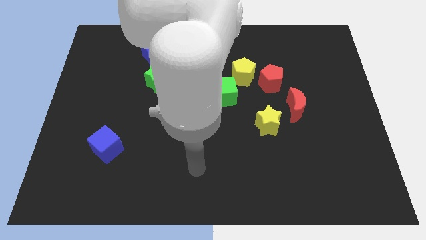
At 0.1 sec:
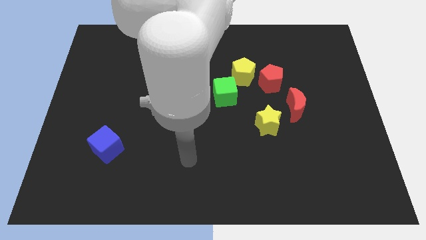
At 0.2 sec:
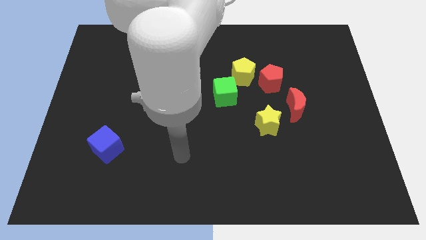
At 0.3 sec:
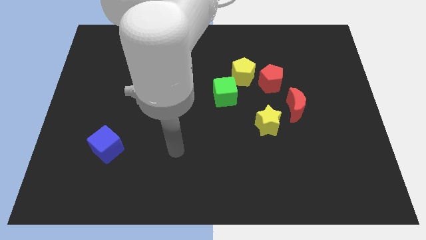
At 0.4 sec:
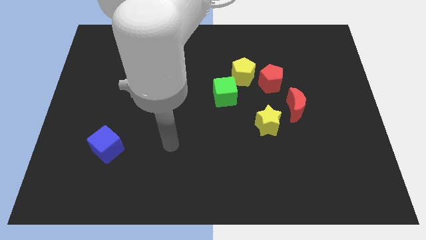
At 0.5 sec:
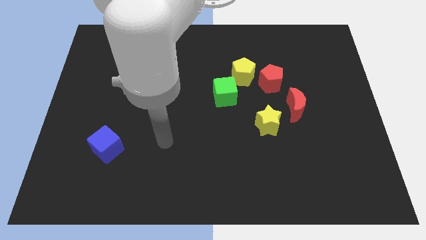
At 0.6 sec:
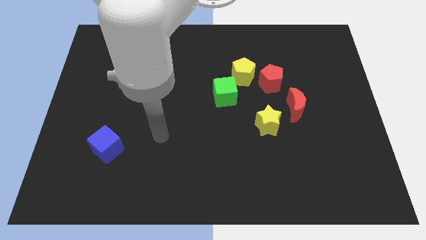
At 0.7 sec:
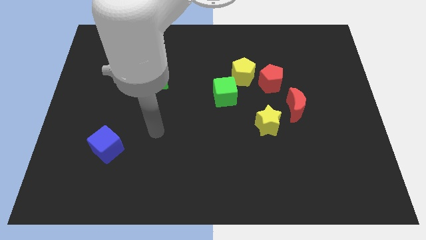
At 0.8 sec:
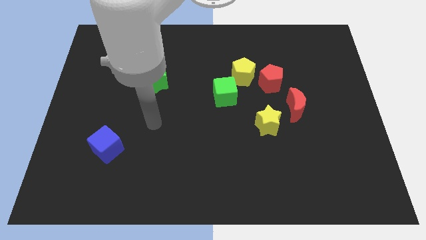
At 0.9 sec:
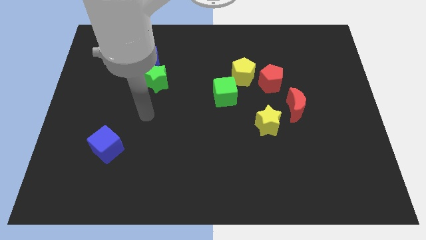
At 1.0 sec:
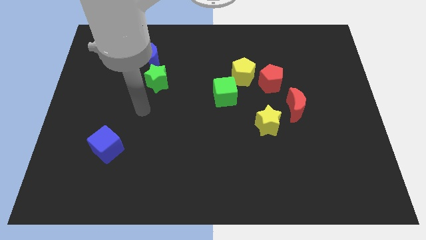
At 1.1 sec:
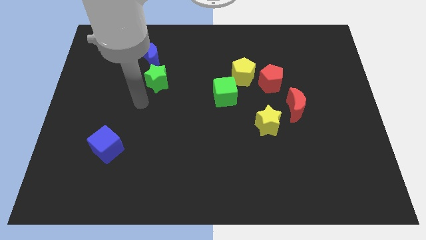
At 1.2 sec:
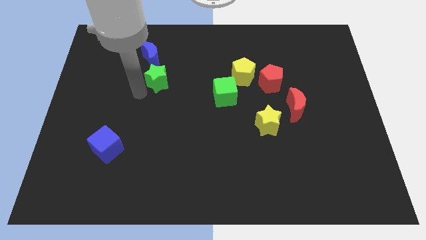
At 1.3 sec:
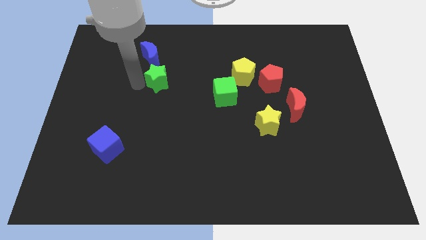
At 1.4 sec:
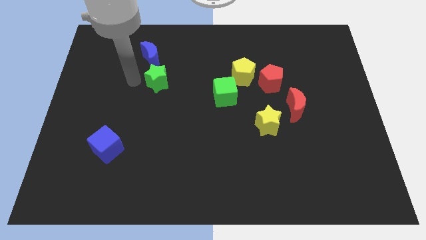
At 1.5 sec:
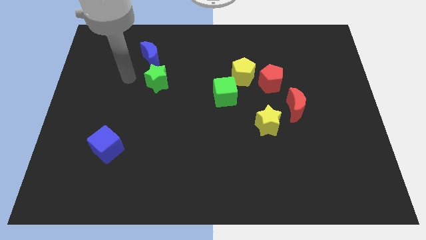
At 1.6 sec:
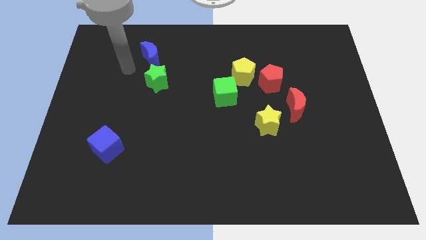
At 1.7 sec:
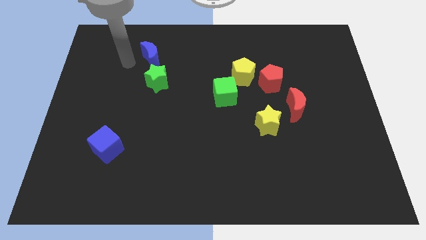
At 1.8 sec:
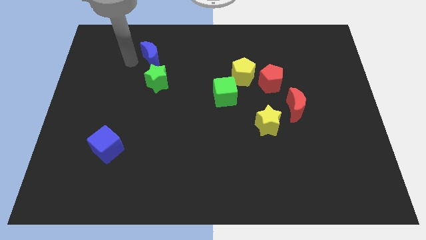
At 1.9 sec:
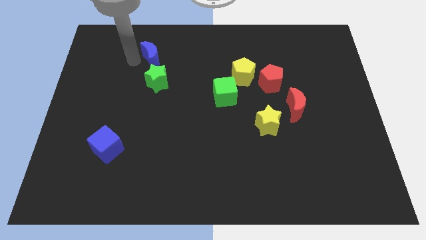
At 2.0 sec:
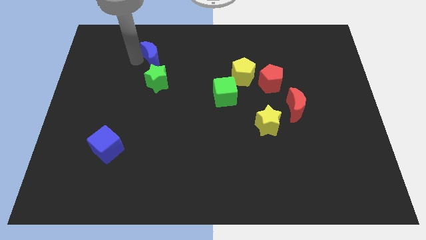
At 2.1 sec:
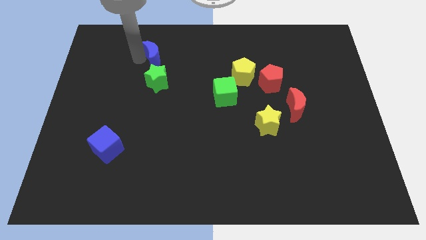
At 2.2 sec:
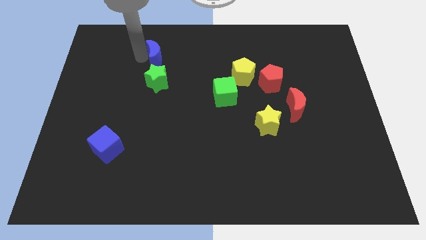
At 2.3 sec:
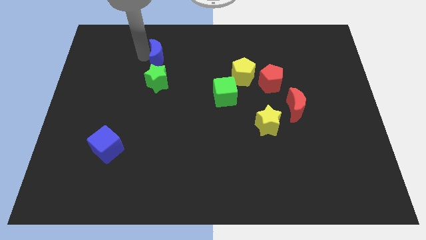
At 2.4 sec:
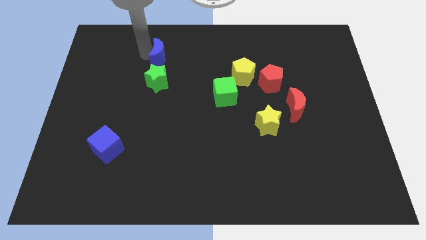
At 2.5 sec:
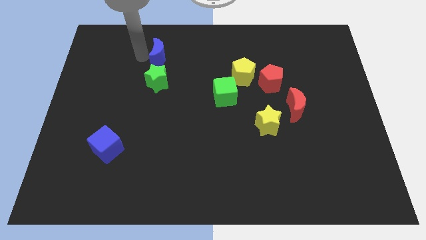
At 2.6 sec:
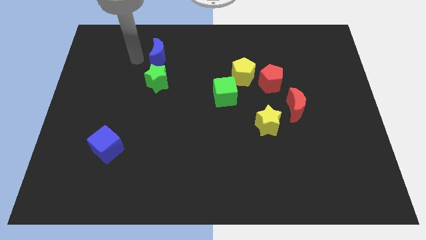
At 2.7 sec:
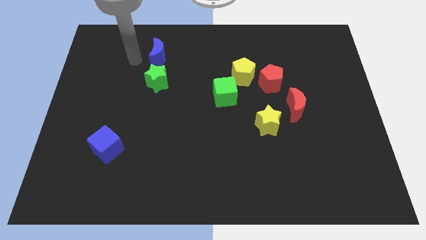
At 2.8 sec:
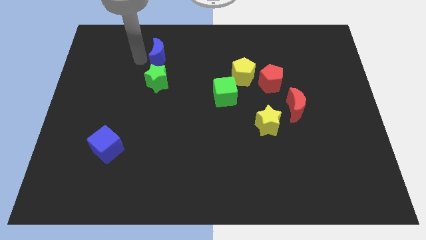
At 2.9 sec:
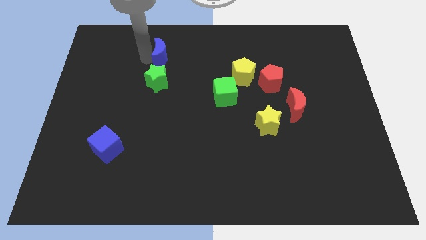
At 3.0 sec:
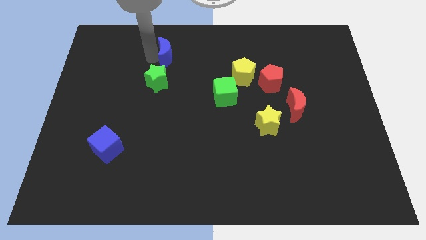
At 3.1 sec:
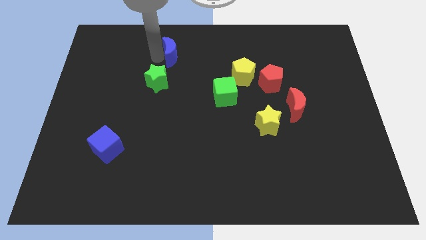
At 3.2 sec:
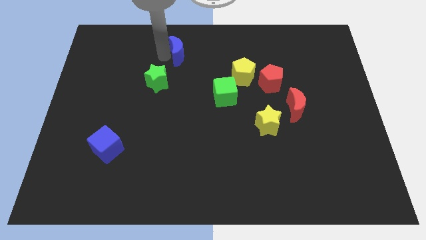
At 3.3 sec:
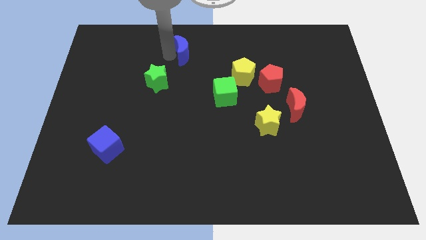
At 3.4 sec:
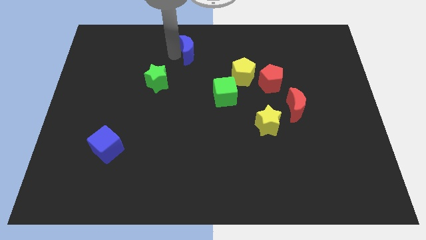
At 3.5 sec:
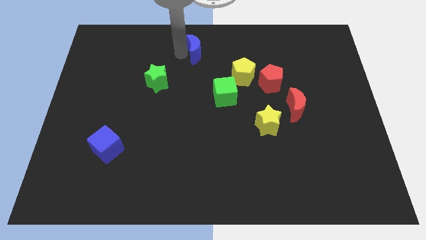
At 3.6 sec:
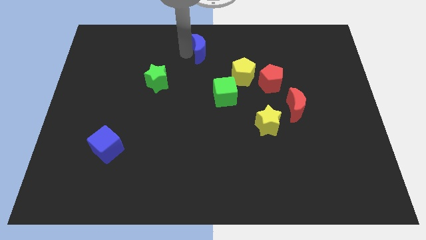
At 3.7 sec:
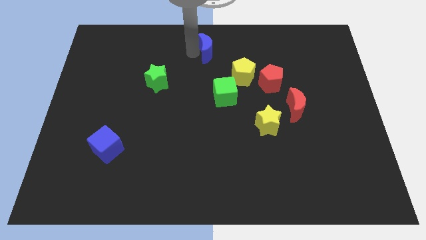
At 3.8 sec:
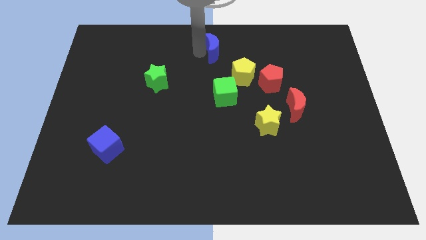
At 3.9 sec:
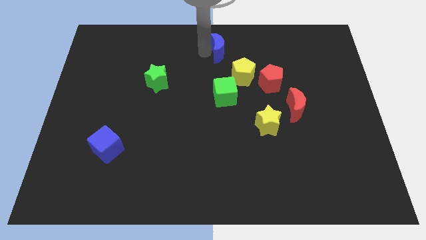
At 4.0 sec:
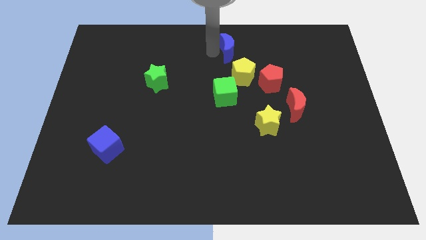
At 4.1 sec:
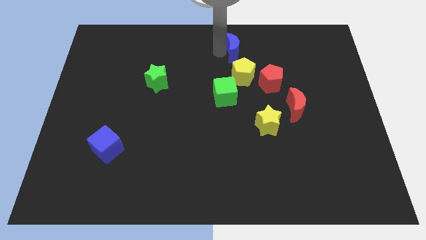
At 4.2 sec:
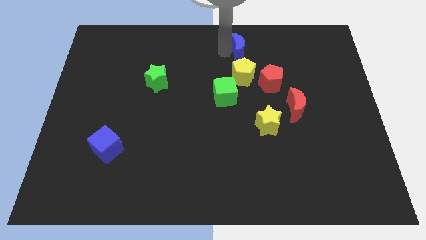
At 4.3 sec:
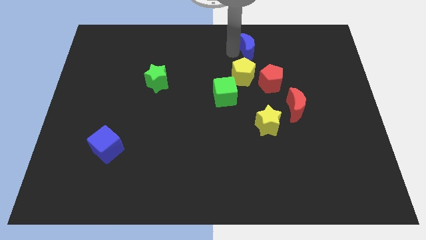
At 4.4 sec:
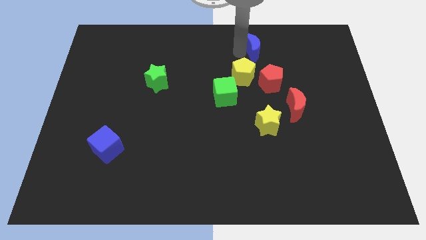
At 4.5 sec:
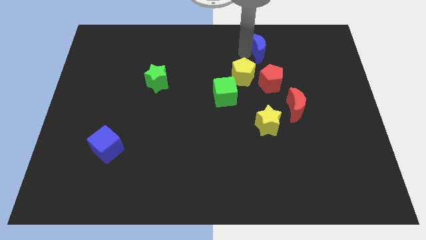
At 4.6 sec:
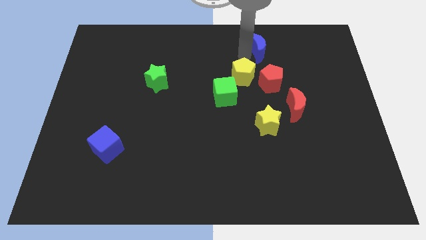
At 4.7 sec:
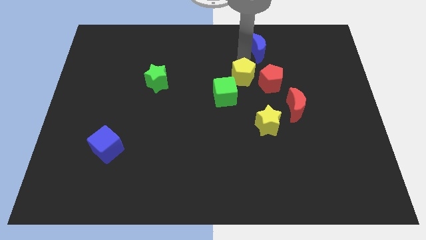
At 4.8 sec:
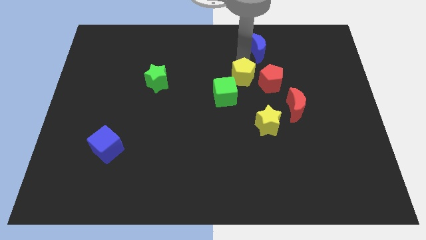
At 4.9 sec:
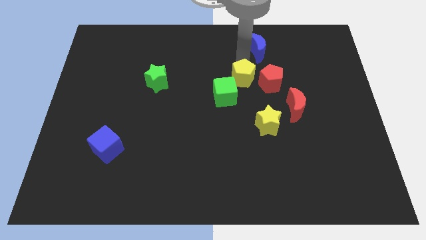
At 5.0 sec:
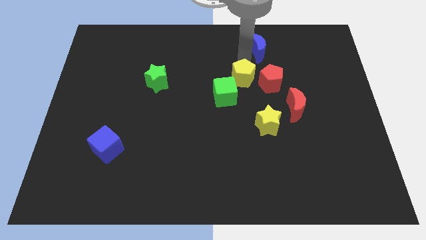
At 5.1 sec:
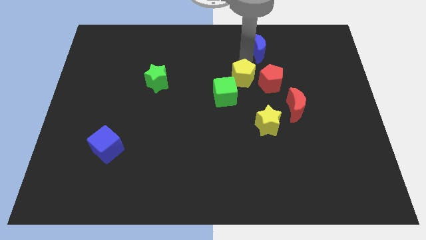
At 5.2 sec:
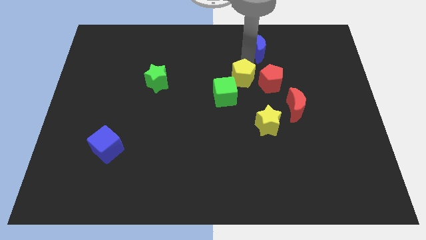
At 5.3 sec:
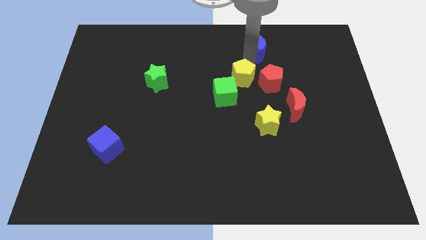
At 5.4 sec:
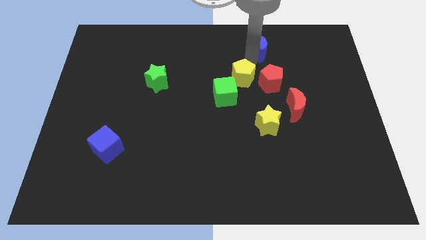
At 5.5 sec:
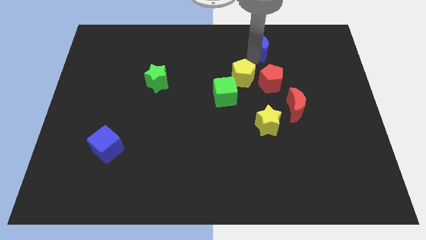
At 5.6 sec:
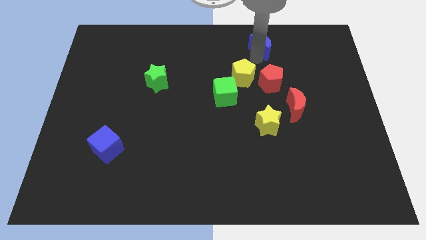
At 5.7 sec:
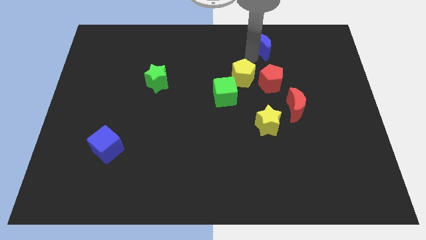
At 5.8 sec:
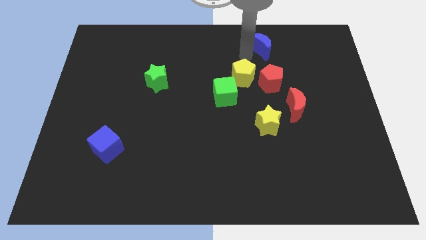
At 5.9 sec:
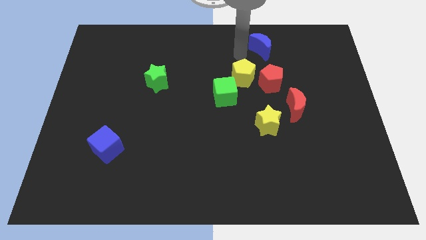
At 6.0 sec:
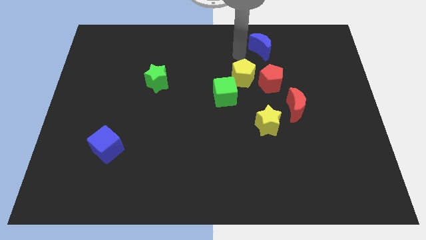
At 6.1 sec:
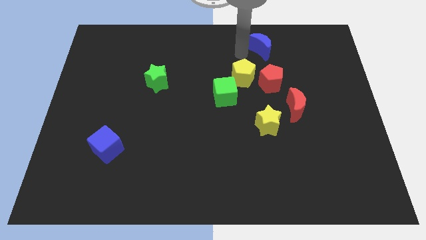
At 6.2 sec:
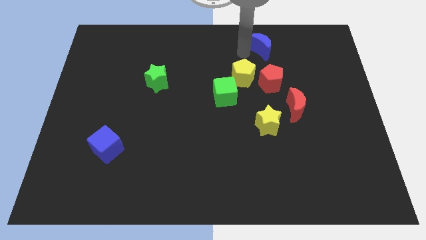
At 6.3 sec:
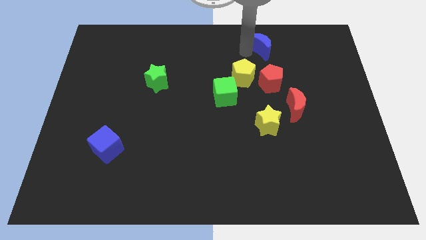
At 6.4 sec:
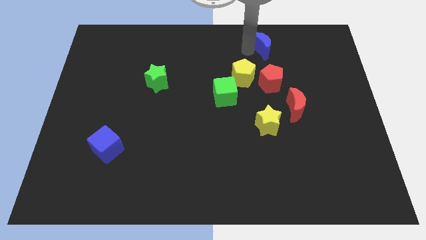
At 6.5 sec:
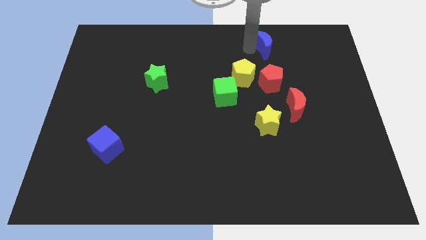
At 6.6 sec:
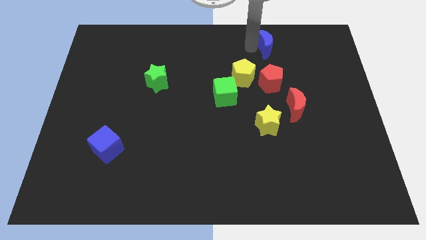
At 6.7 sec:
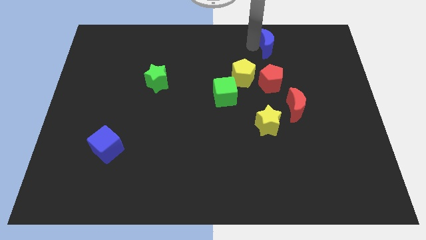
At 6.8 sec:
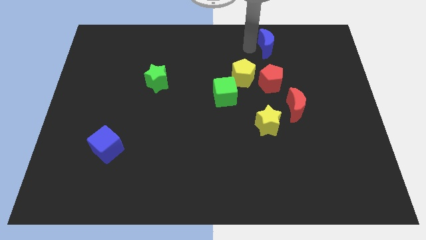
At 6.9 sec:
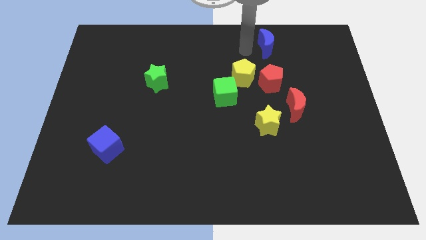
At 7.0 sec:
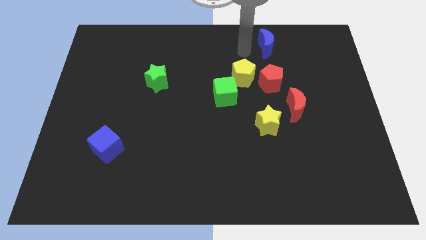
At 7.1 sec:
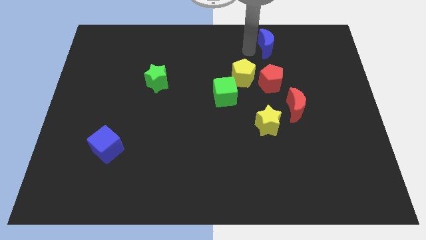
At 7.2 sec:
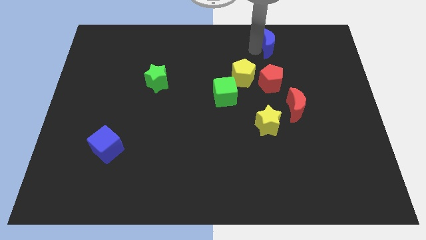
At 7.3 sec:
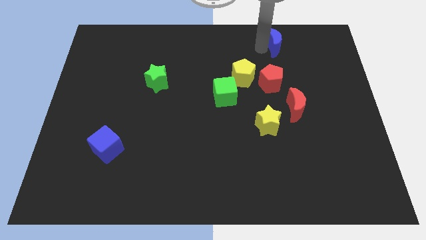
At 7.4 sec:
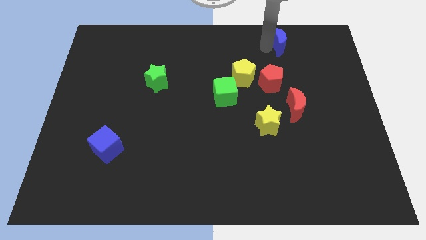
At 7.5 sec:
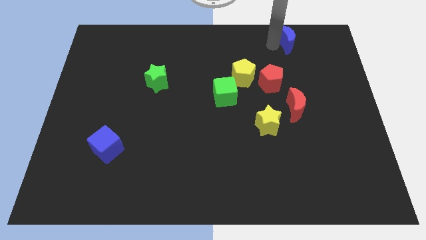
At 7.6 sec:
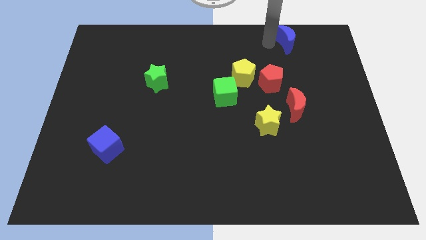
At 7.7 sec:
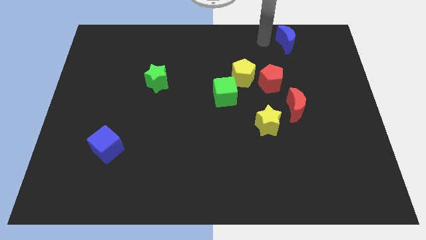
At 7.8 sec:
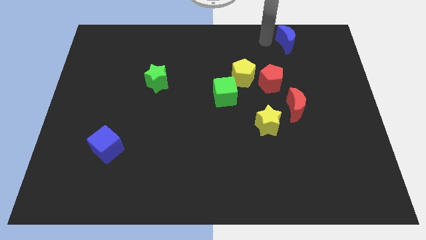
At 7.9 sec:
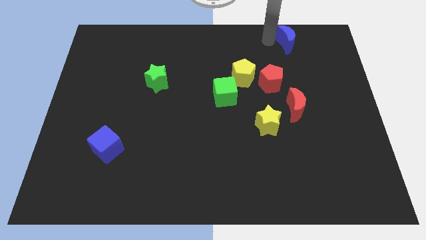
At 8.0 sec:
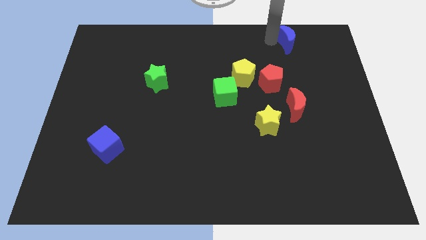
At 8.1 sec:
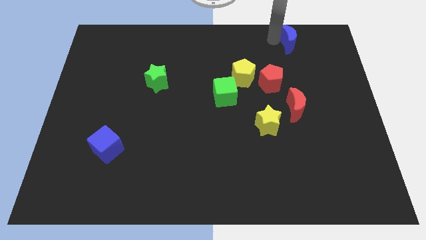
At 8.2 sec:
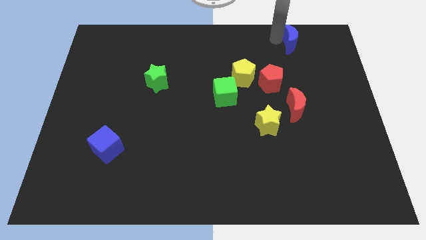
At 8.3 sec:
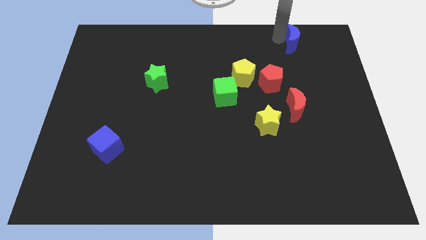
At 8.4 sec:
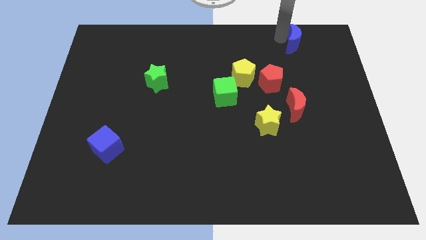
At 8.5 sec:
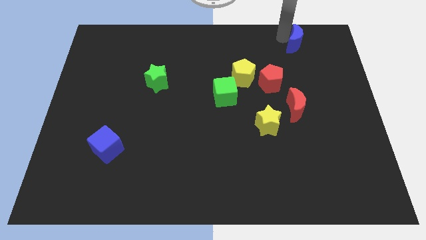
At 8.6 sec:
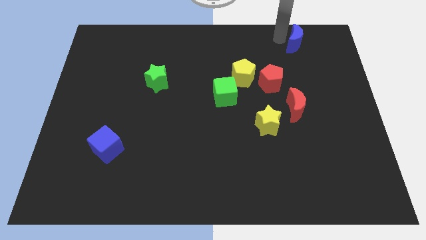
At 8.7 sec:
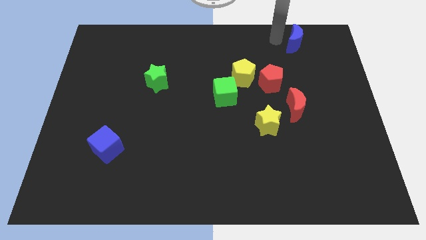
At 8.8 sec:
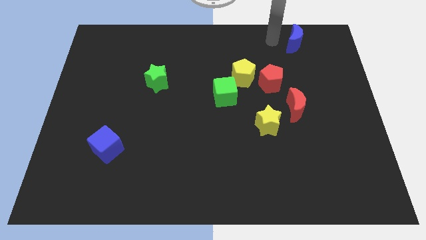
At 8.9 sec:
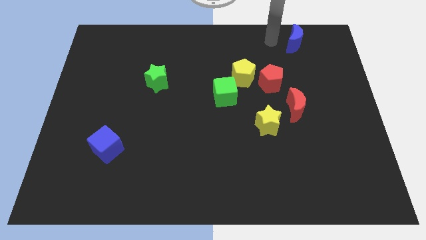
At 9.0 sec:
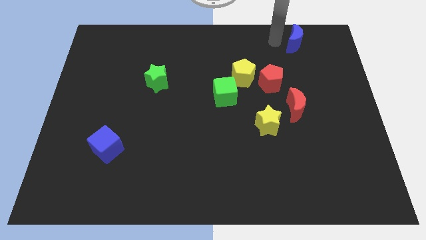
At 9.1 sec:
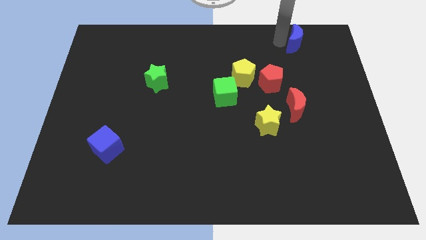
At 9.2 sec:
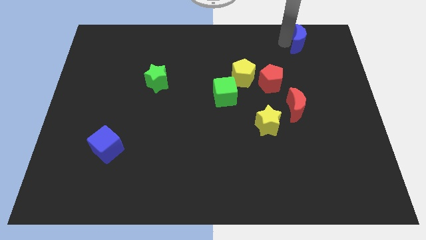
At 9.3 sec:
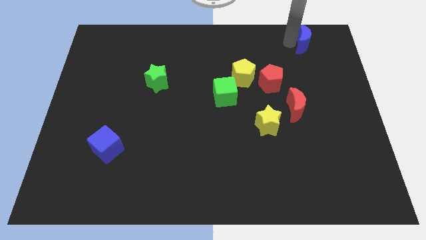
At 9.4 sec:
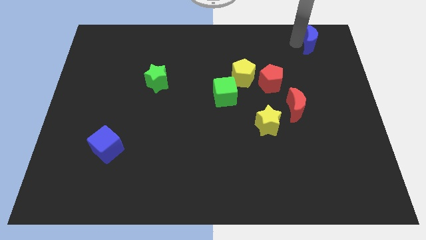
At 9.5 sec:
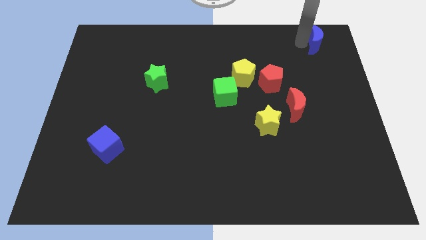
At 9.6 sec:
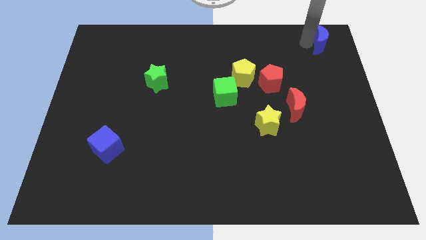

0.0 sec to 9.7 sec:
push the blue moon to the top right
